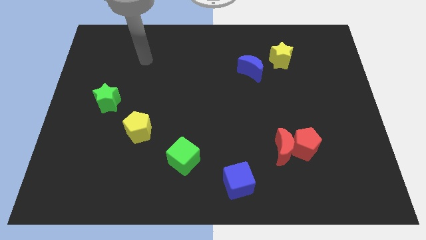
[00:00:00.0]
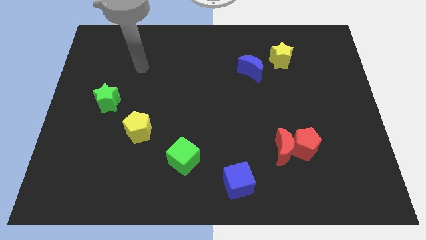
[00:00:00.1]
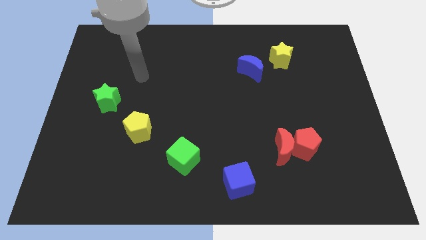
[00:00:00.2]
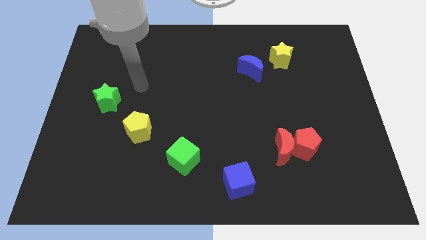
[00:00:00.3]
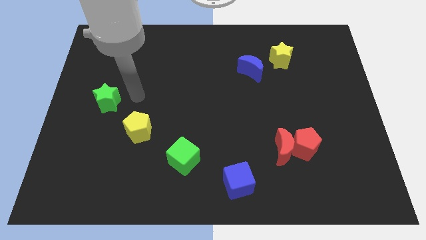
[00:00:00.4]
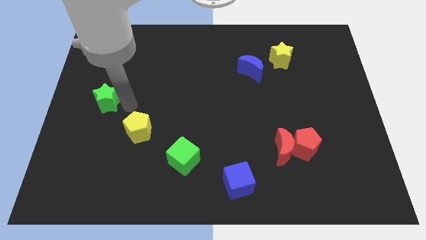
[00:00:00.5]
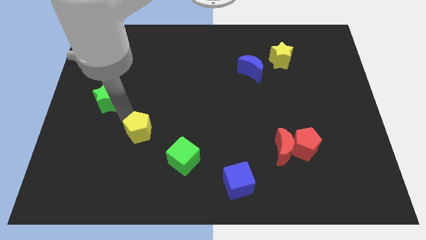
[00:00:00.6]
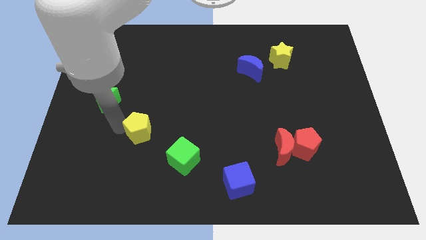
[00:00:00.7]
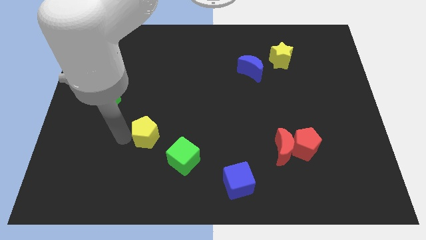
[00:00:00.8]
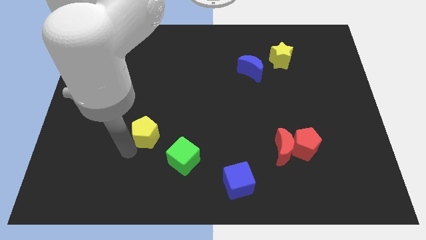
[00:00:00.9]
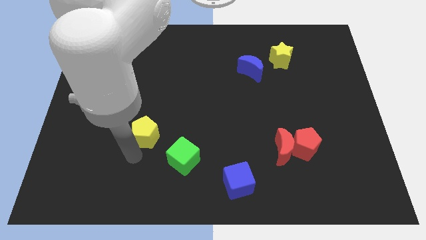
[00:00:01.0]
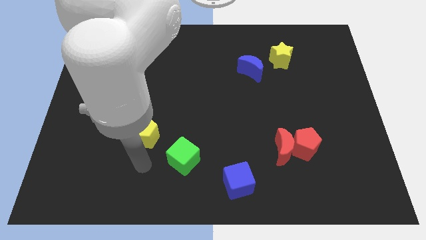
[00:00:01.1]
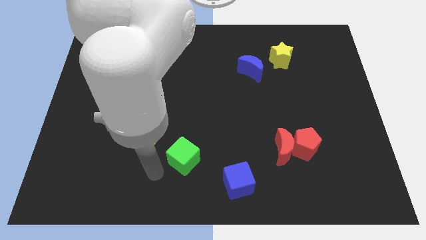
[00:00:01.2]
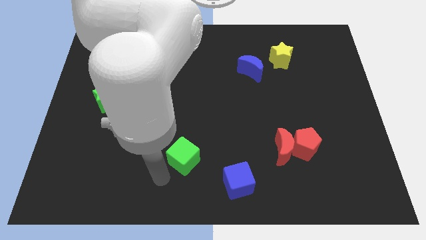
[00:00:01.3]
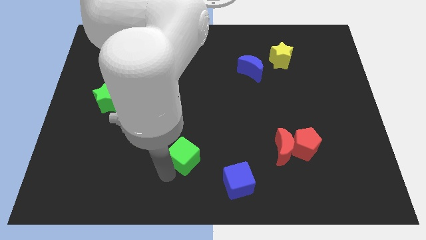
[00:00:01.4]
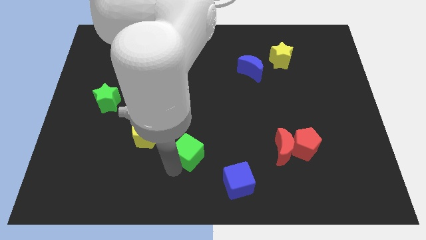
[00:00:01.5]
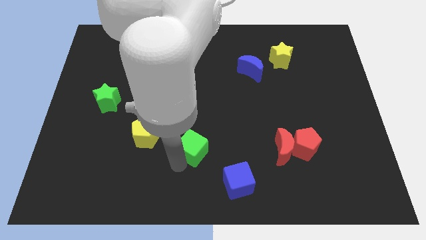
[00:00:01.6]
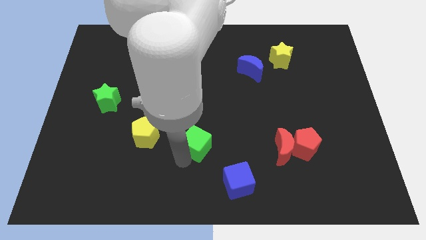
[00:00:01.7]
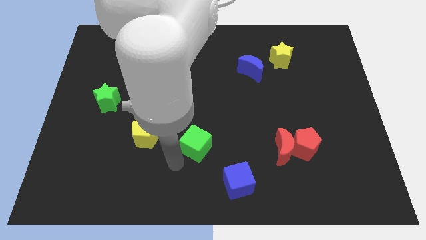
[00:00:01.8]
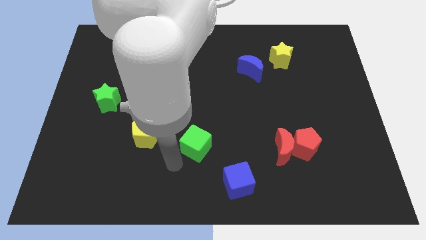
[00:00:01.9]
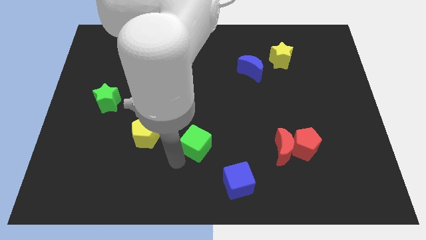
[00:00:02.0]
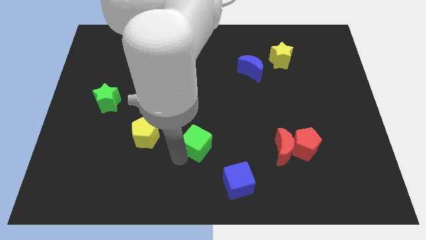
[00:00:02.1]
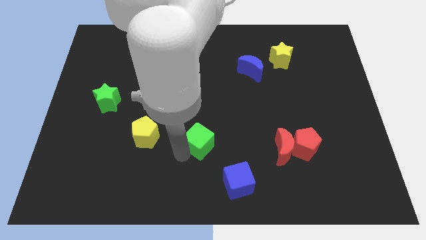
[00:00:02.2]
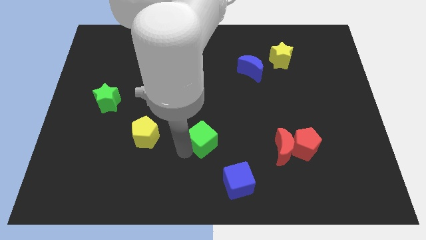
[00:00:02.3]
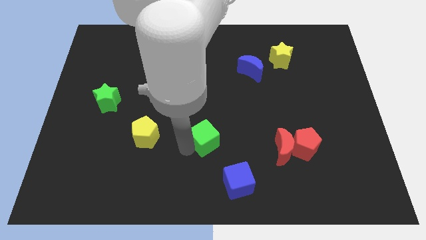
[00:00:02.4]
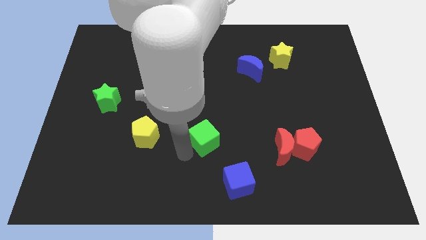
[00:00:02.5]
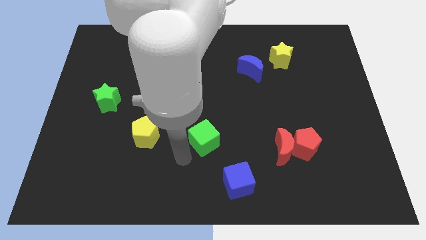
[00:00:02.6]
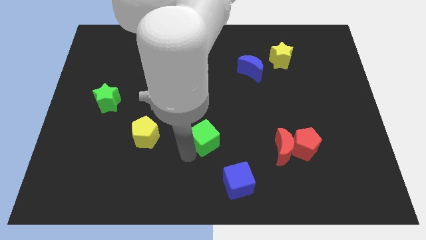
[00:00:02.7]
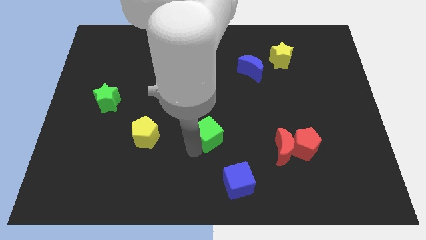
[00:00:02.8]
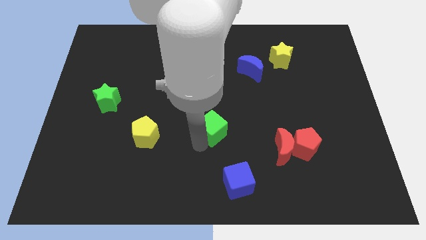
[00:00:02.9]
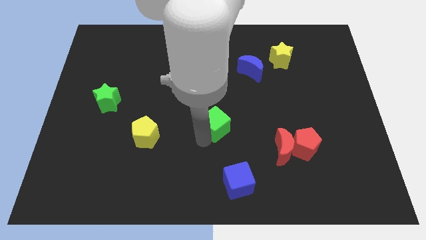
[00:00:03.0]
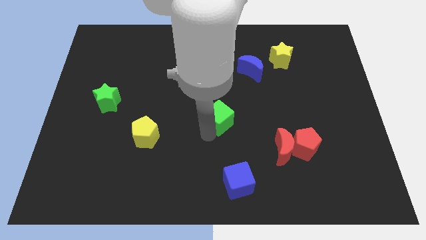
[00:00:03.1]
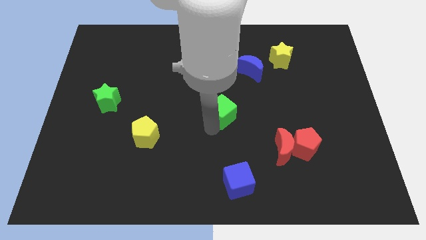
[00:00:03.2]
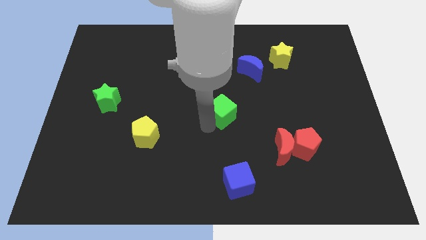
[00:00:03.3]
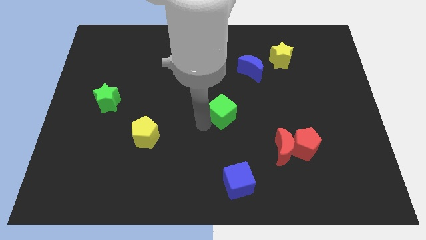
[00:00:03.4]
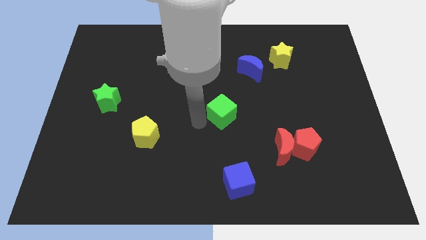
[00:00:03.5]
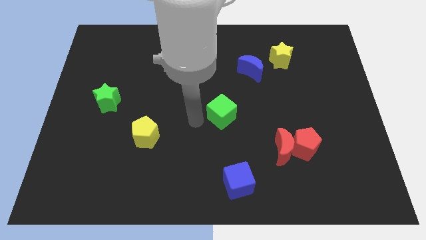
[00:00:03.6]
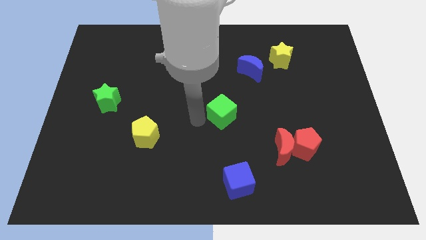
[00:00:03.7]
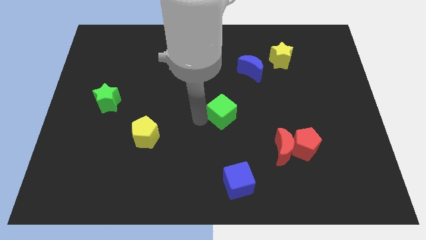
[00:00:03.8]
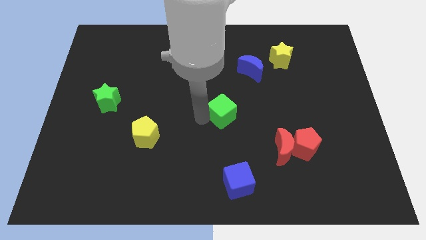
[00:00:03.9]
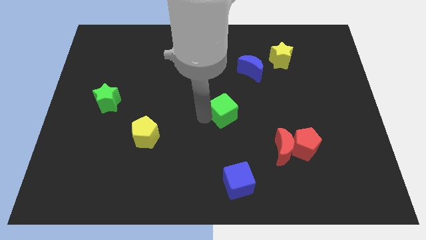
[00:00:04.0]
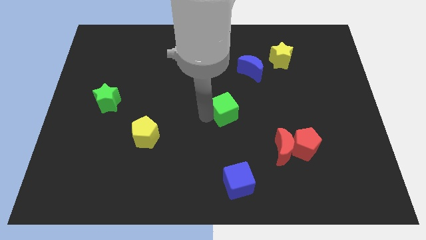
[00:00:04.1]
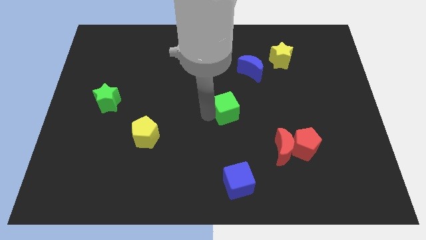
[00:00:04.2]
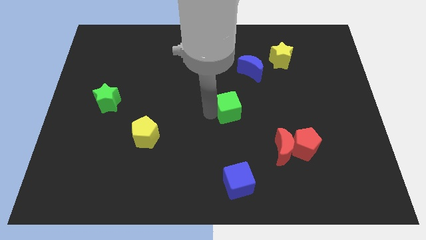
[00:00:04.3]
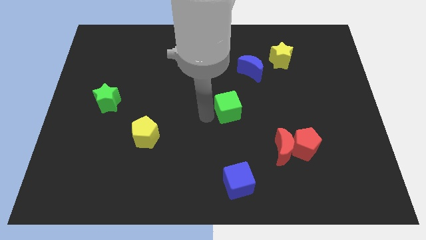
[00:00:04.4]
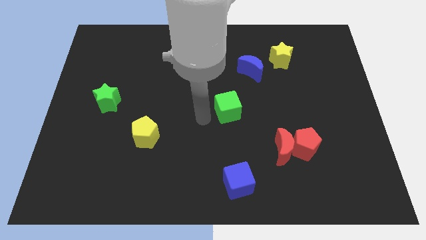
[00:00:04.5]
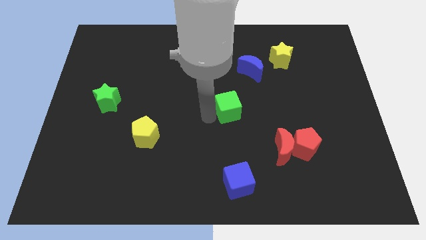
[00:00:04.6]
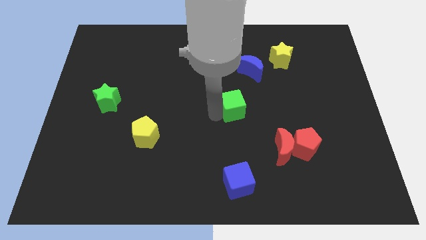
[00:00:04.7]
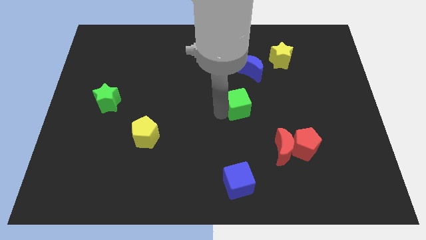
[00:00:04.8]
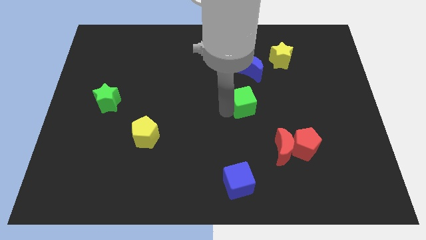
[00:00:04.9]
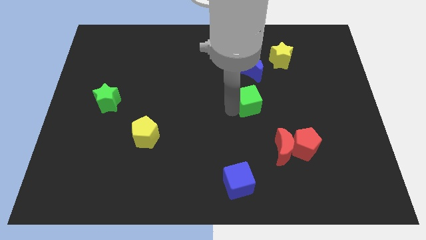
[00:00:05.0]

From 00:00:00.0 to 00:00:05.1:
slide the green cube upwards and right diagonally

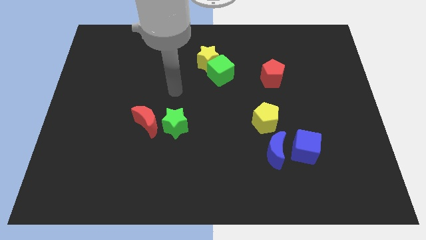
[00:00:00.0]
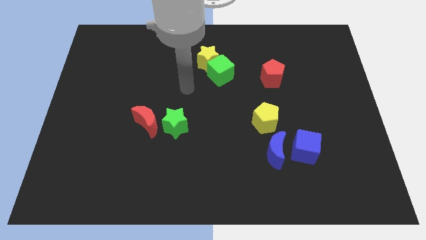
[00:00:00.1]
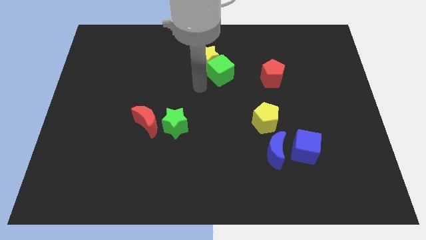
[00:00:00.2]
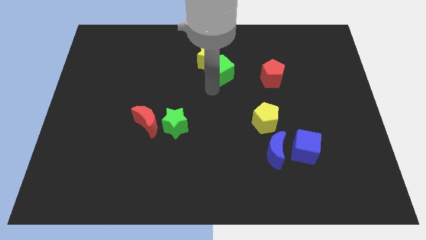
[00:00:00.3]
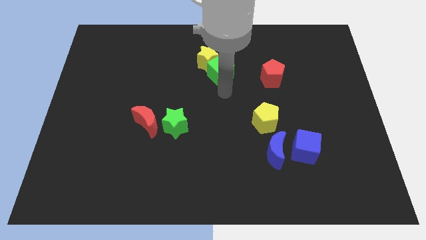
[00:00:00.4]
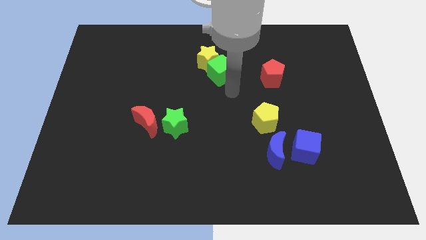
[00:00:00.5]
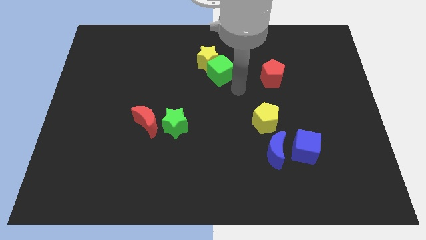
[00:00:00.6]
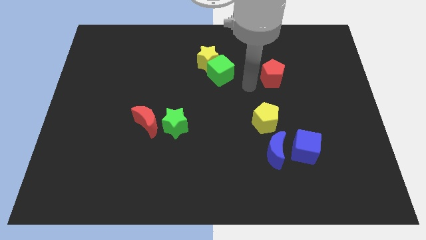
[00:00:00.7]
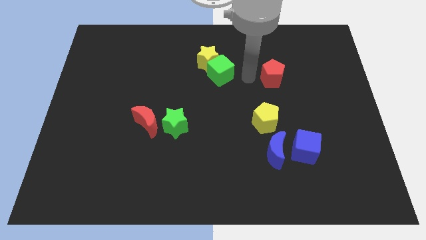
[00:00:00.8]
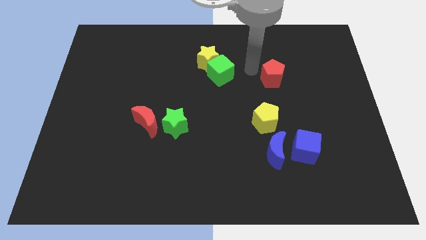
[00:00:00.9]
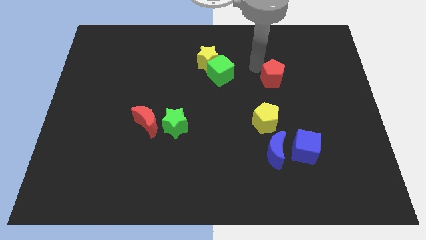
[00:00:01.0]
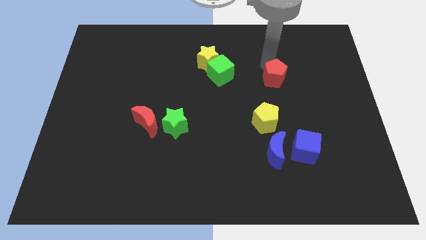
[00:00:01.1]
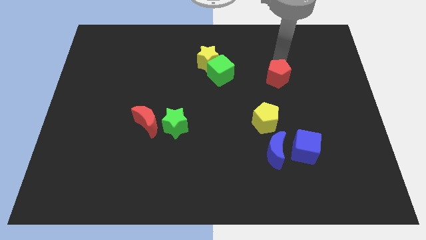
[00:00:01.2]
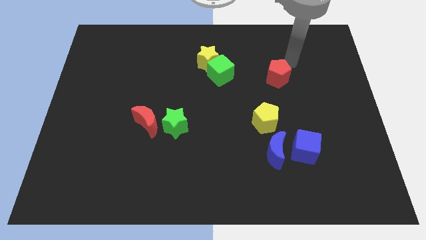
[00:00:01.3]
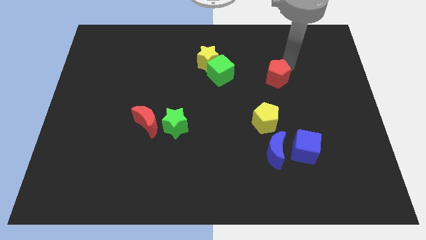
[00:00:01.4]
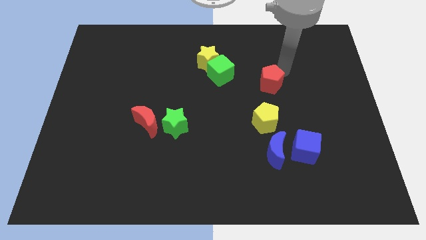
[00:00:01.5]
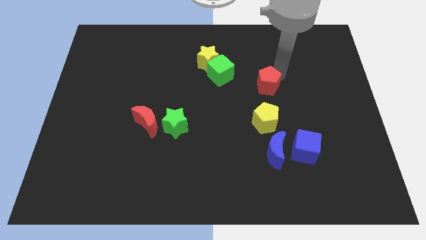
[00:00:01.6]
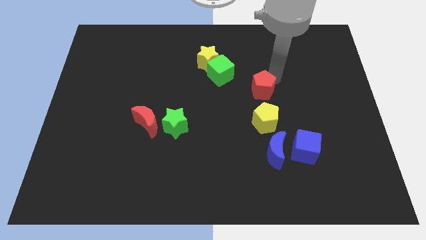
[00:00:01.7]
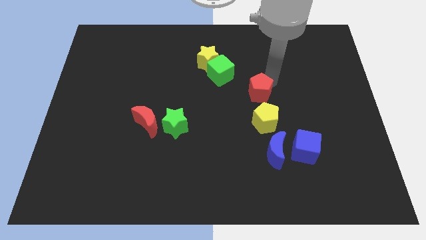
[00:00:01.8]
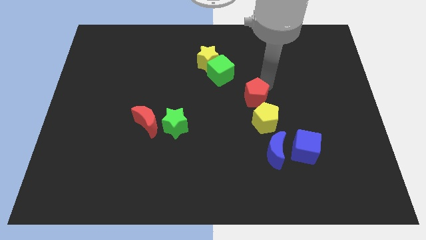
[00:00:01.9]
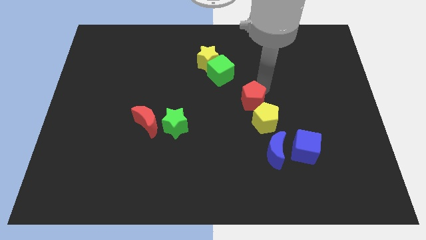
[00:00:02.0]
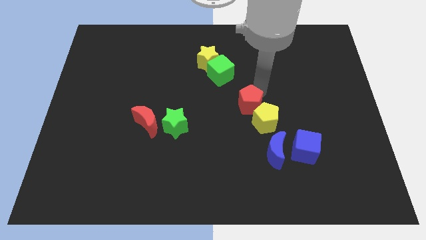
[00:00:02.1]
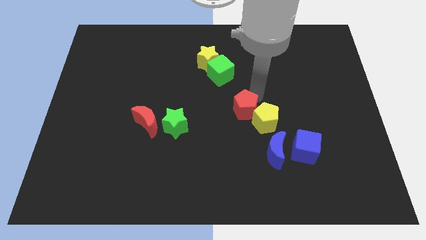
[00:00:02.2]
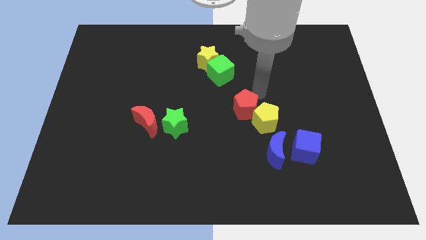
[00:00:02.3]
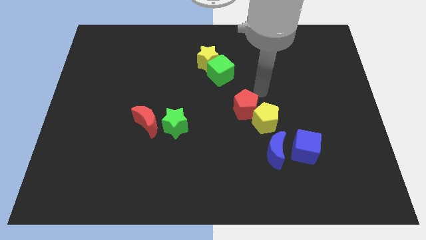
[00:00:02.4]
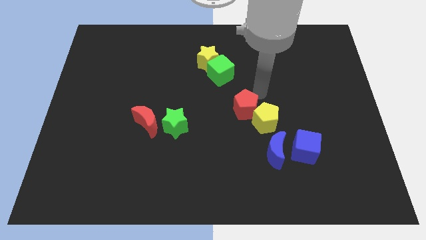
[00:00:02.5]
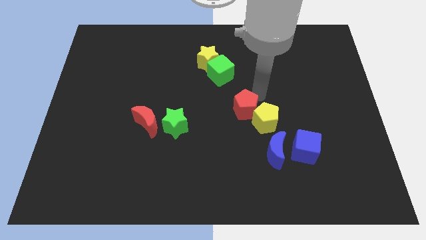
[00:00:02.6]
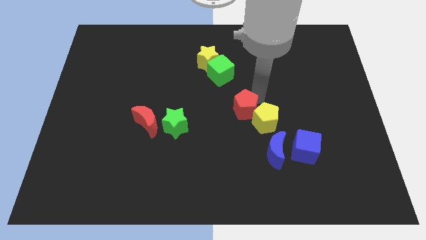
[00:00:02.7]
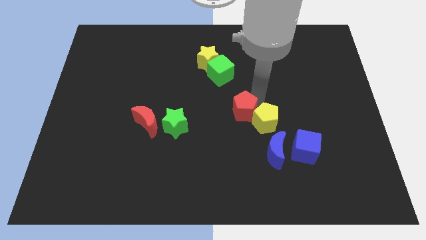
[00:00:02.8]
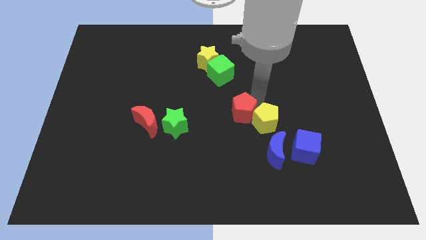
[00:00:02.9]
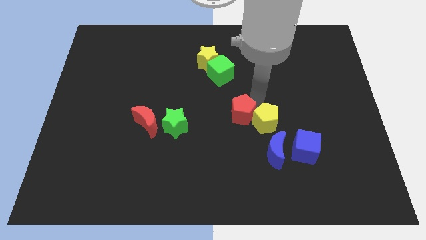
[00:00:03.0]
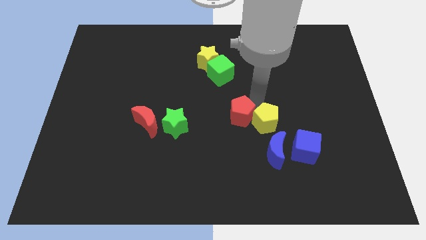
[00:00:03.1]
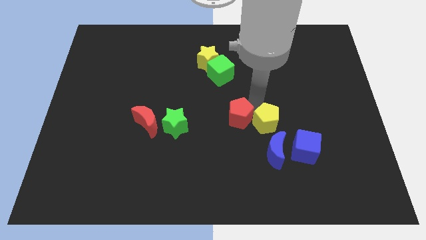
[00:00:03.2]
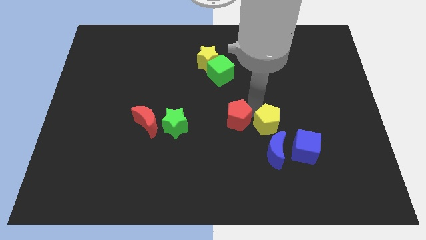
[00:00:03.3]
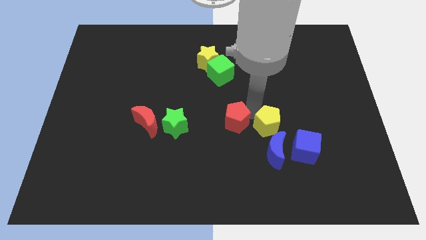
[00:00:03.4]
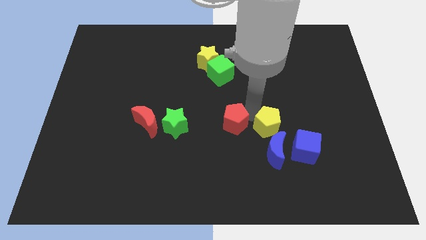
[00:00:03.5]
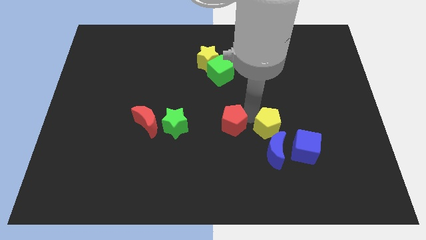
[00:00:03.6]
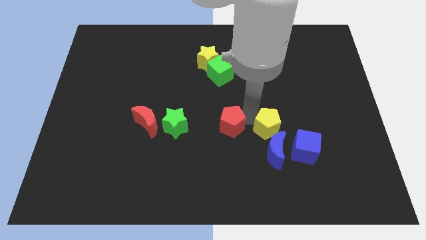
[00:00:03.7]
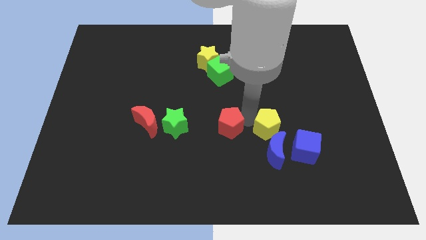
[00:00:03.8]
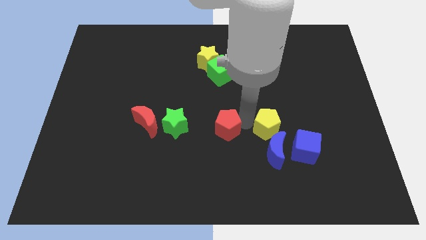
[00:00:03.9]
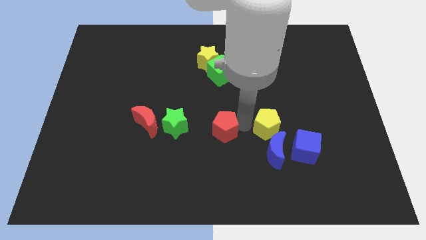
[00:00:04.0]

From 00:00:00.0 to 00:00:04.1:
slide the red pentagon downwards and left
